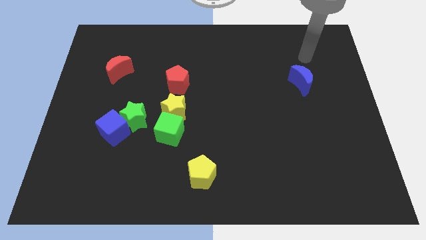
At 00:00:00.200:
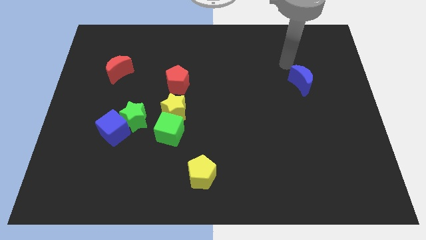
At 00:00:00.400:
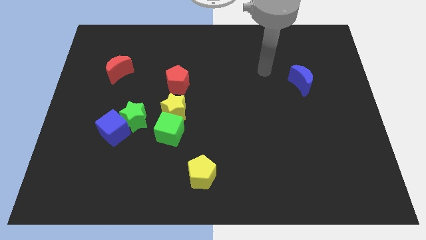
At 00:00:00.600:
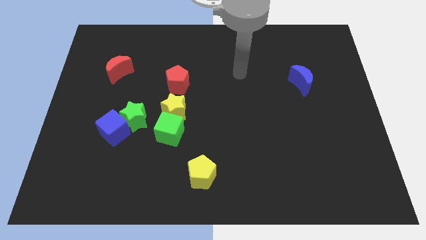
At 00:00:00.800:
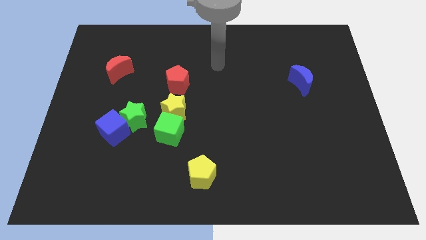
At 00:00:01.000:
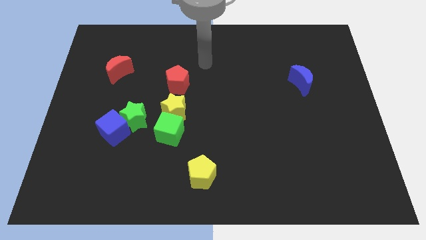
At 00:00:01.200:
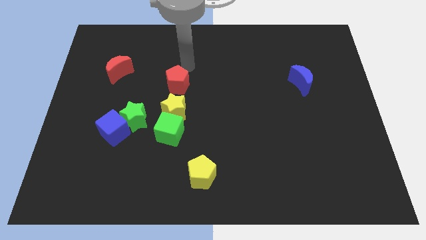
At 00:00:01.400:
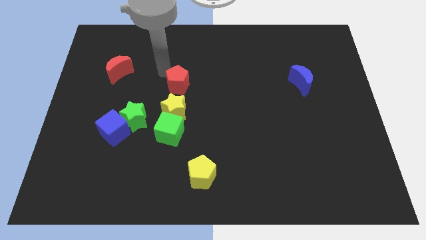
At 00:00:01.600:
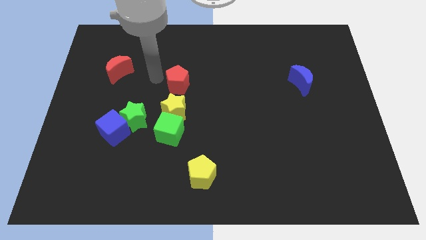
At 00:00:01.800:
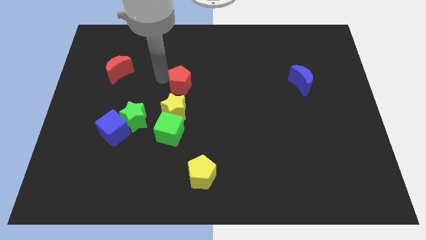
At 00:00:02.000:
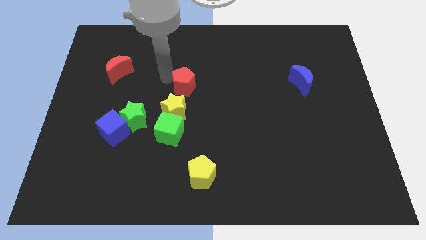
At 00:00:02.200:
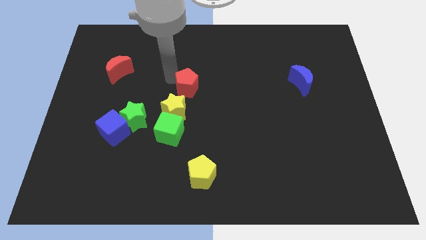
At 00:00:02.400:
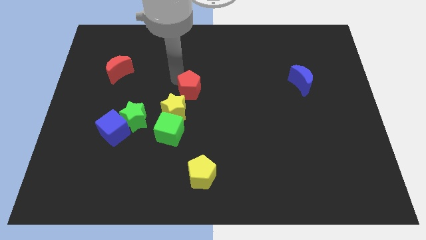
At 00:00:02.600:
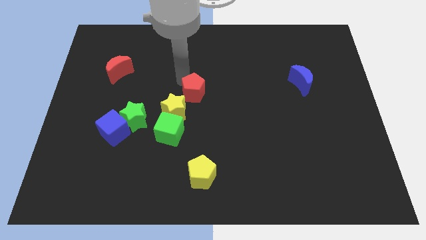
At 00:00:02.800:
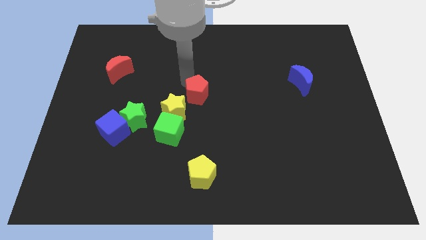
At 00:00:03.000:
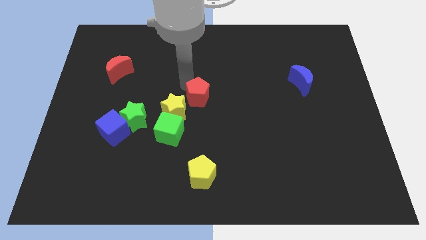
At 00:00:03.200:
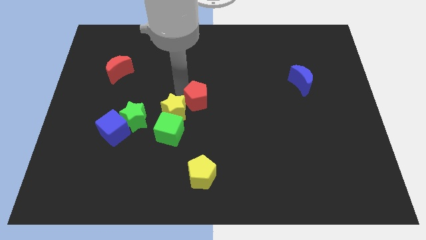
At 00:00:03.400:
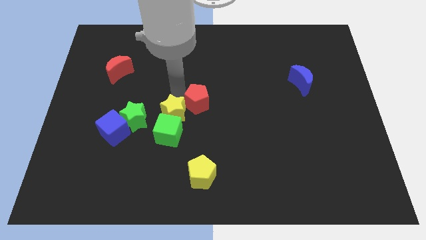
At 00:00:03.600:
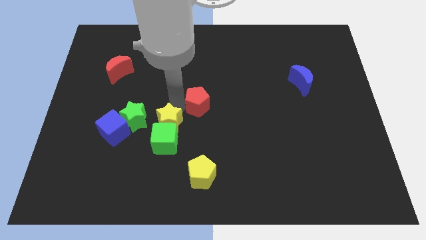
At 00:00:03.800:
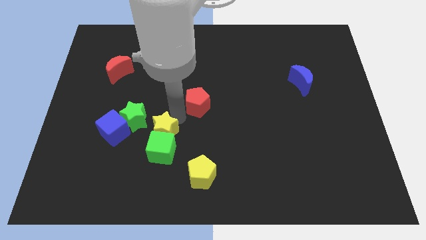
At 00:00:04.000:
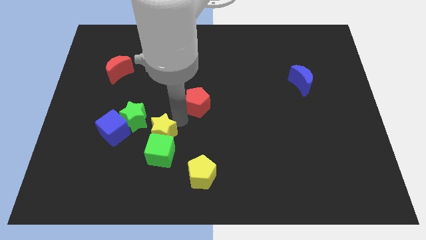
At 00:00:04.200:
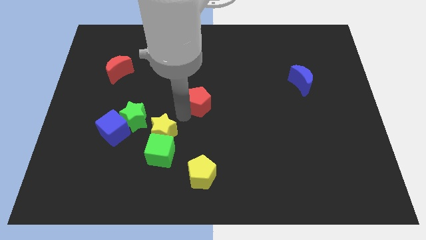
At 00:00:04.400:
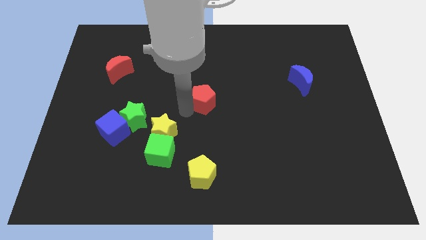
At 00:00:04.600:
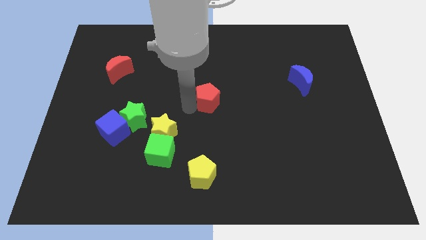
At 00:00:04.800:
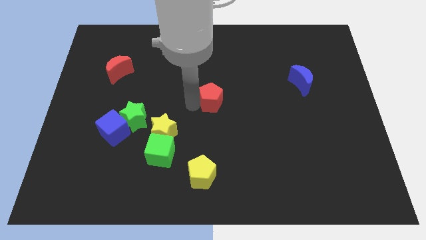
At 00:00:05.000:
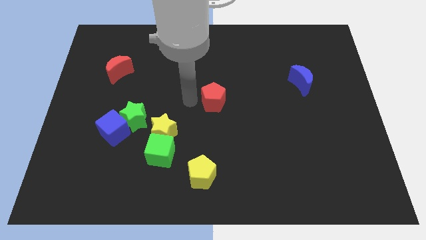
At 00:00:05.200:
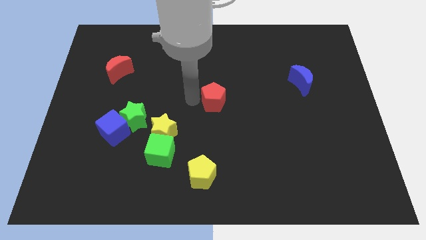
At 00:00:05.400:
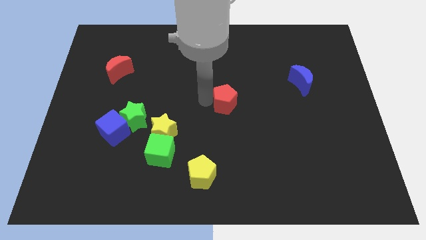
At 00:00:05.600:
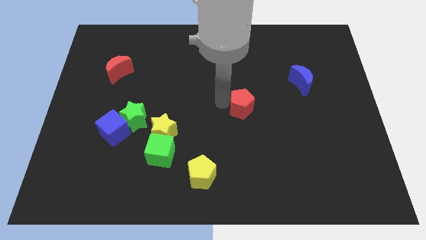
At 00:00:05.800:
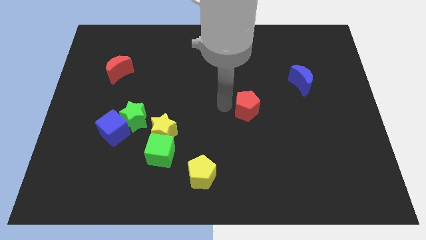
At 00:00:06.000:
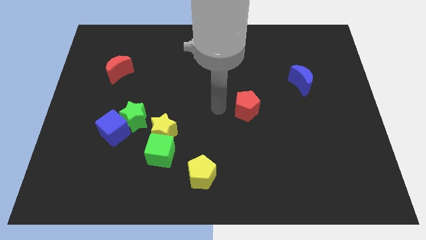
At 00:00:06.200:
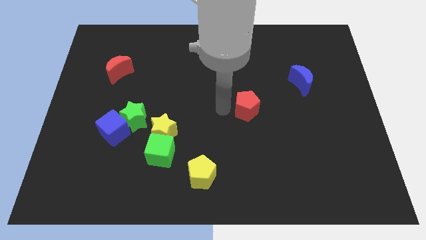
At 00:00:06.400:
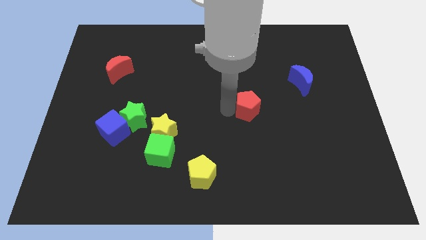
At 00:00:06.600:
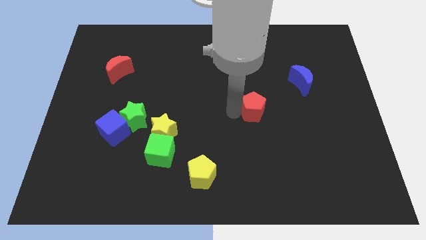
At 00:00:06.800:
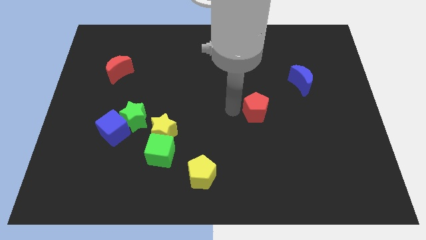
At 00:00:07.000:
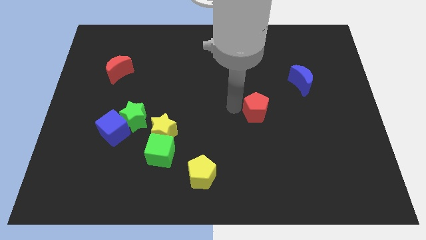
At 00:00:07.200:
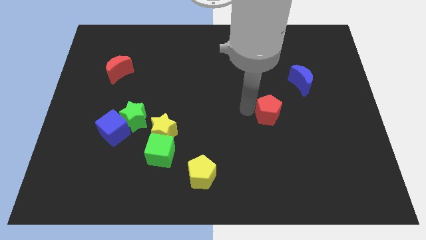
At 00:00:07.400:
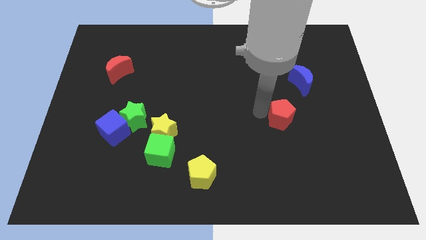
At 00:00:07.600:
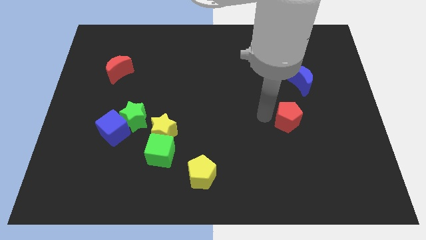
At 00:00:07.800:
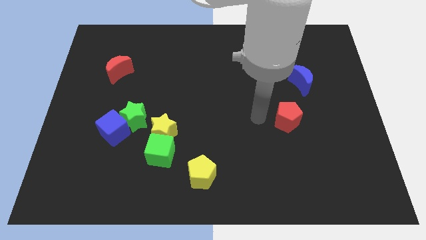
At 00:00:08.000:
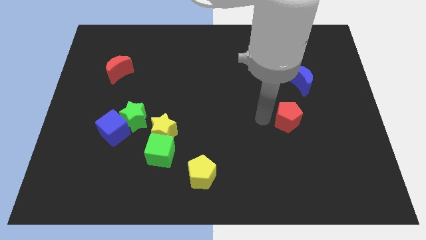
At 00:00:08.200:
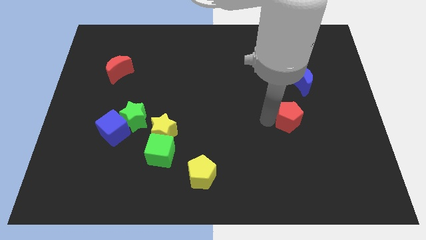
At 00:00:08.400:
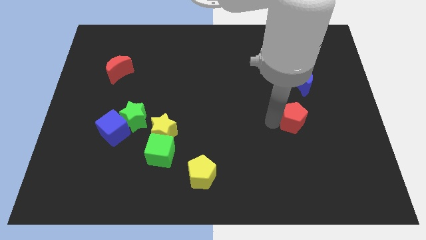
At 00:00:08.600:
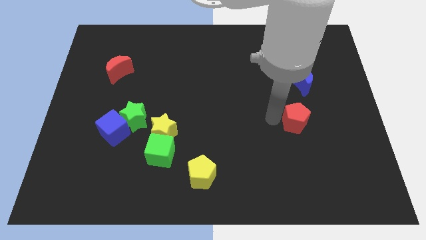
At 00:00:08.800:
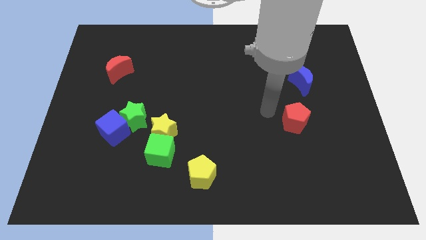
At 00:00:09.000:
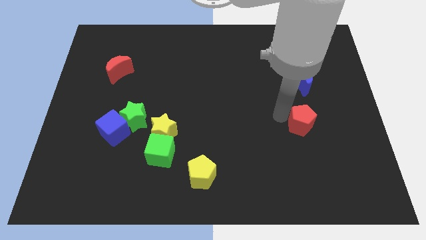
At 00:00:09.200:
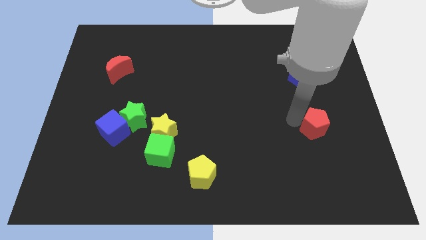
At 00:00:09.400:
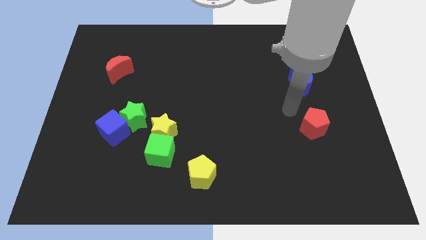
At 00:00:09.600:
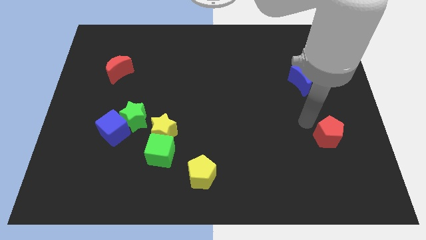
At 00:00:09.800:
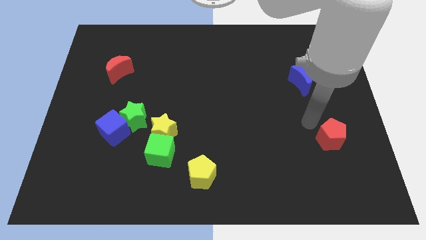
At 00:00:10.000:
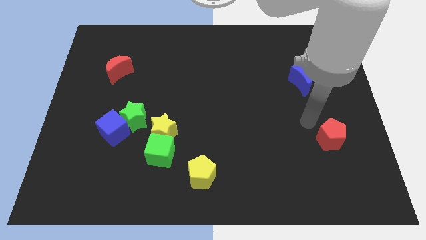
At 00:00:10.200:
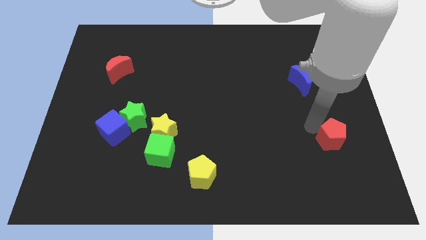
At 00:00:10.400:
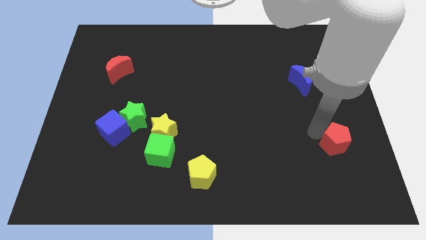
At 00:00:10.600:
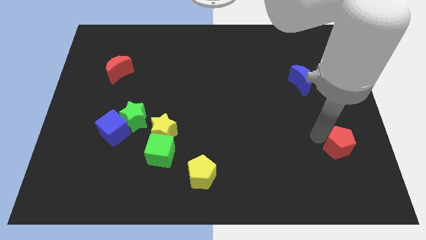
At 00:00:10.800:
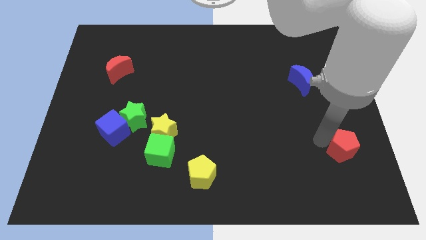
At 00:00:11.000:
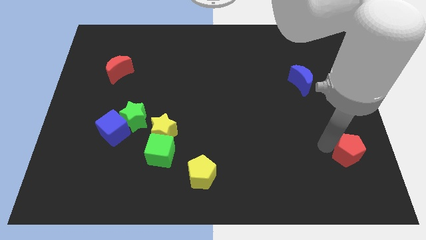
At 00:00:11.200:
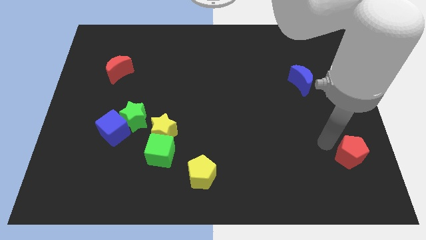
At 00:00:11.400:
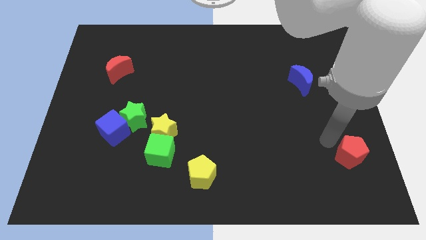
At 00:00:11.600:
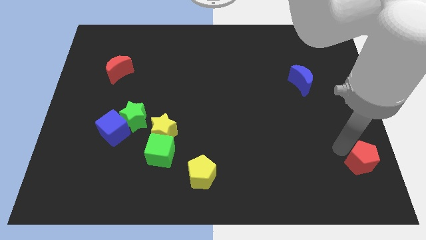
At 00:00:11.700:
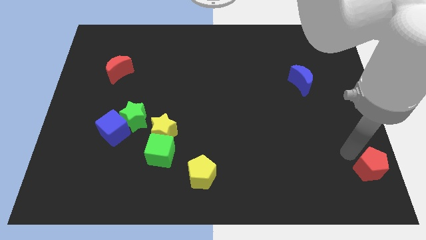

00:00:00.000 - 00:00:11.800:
move the red pentagon to the lower right corner

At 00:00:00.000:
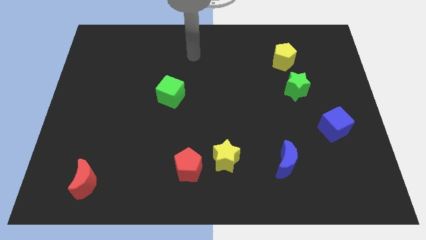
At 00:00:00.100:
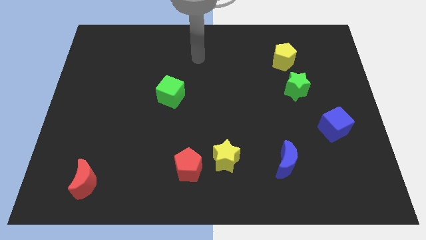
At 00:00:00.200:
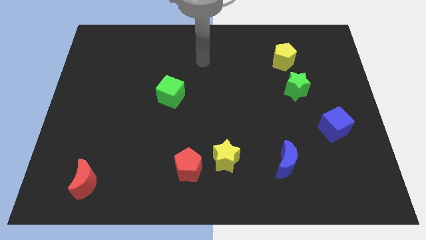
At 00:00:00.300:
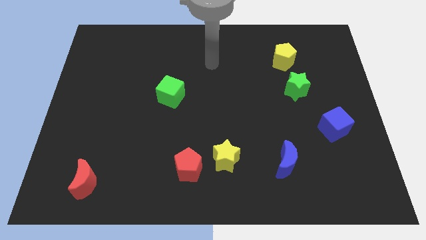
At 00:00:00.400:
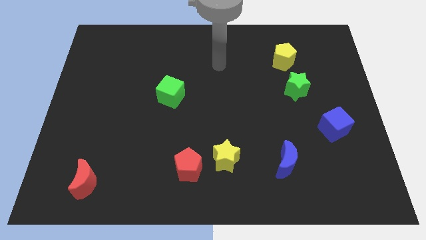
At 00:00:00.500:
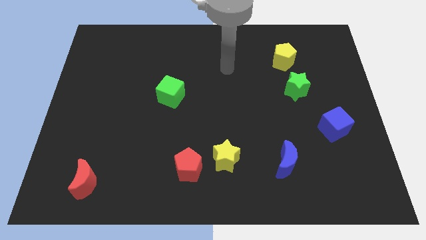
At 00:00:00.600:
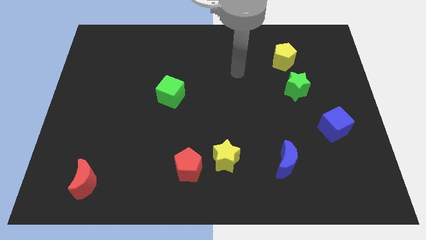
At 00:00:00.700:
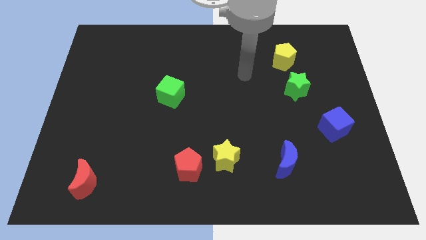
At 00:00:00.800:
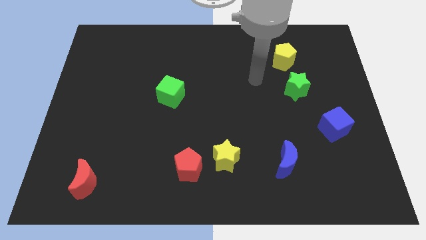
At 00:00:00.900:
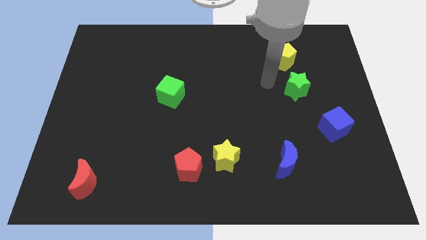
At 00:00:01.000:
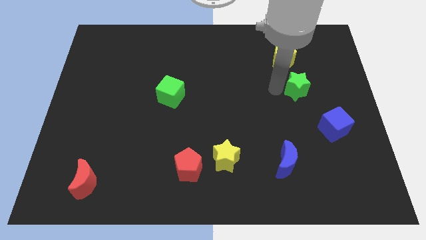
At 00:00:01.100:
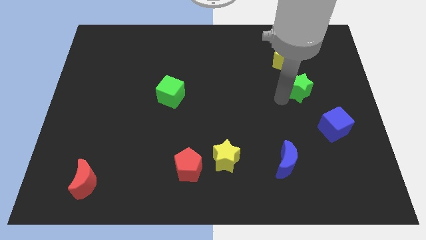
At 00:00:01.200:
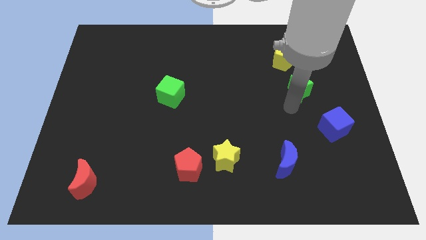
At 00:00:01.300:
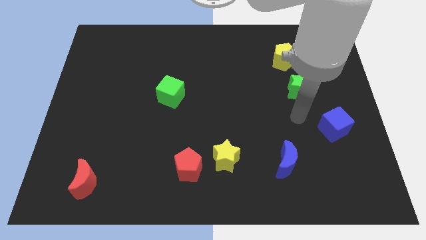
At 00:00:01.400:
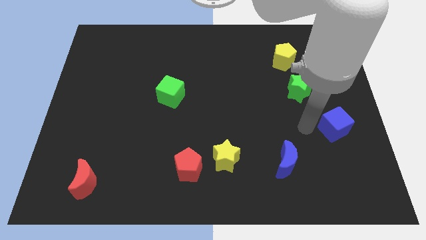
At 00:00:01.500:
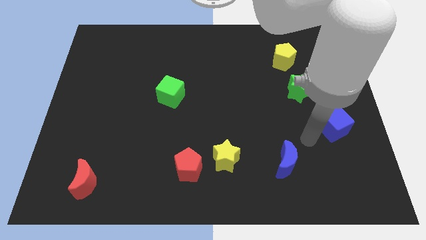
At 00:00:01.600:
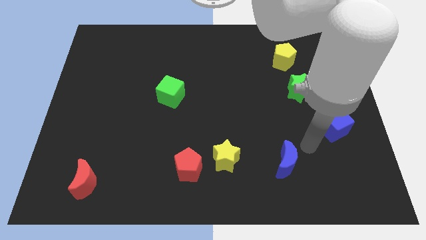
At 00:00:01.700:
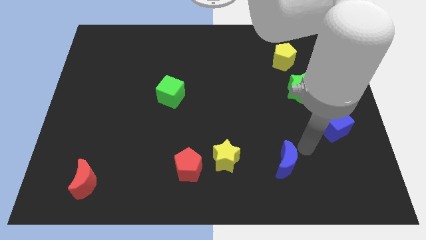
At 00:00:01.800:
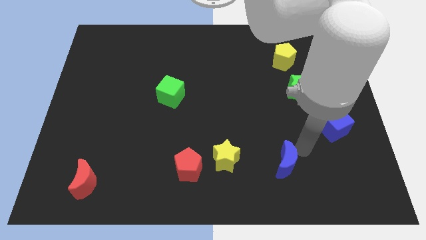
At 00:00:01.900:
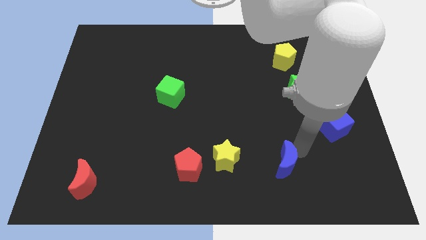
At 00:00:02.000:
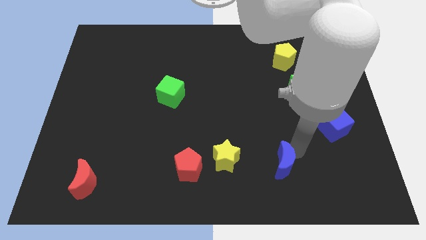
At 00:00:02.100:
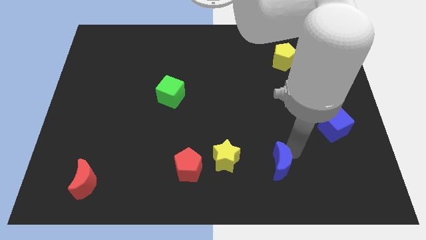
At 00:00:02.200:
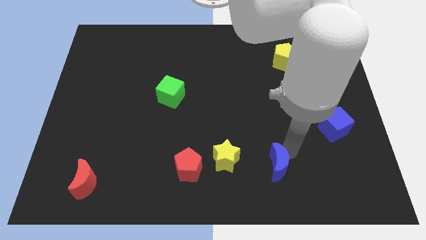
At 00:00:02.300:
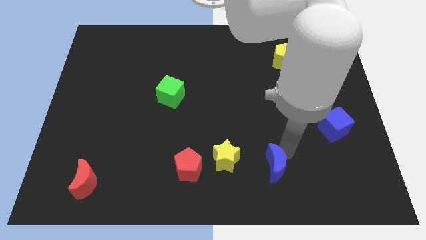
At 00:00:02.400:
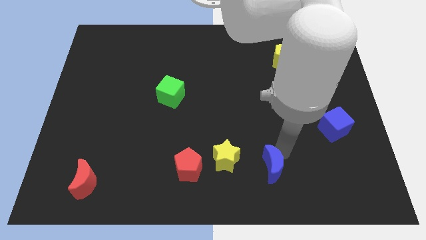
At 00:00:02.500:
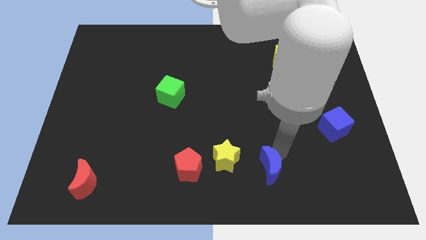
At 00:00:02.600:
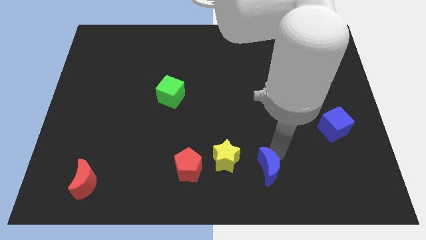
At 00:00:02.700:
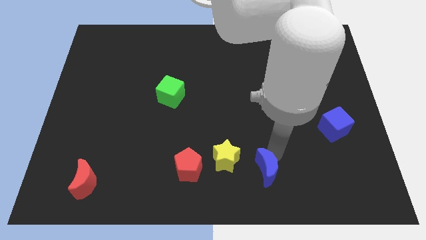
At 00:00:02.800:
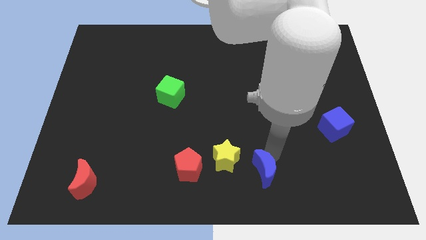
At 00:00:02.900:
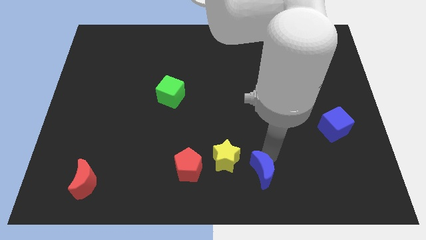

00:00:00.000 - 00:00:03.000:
push the blue moon to the bottom
